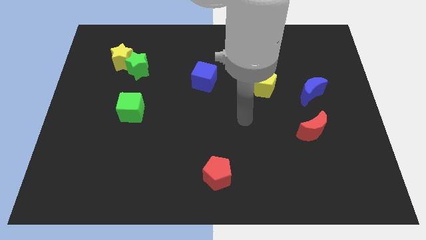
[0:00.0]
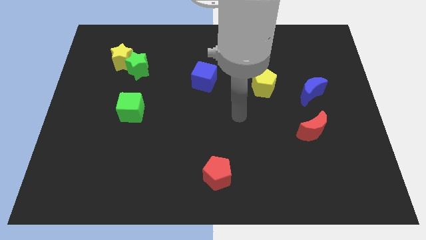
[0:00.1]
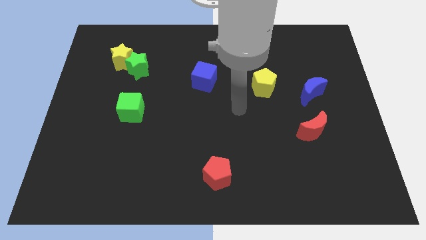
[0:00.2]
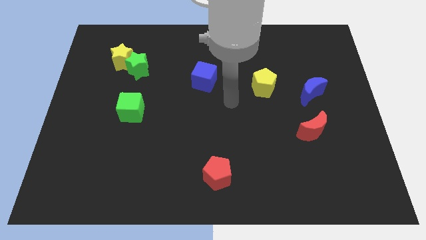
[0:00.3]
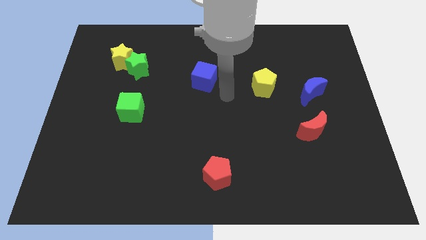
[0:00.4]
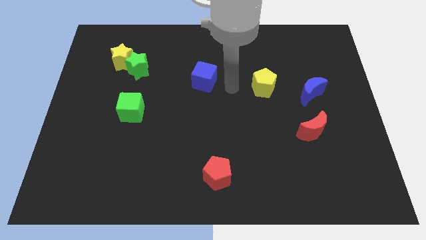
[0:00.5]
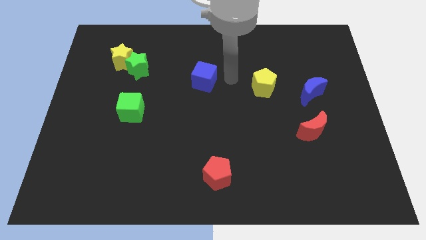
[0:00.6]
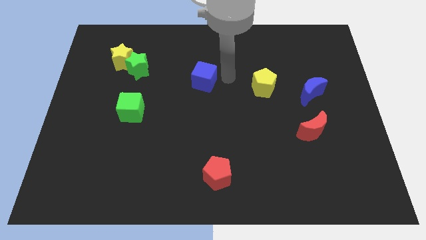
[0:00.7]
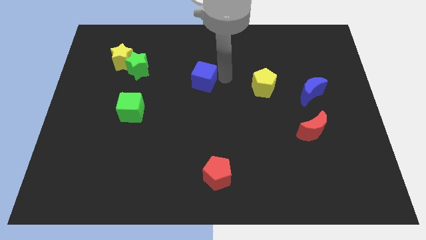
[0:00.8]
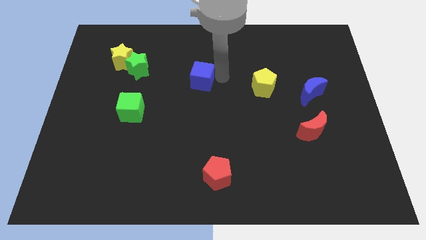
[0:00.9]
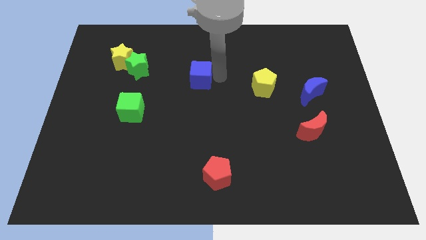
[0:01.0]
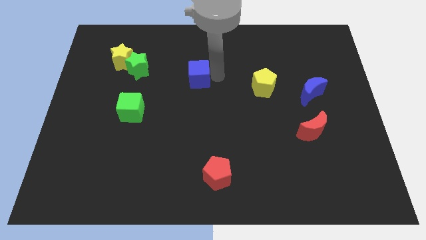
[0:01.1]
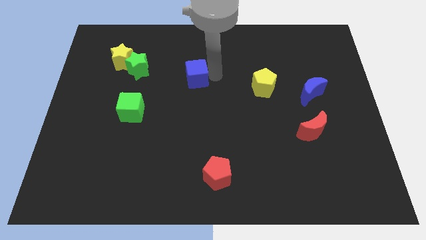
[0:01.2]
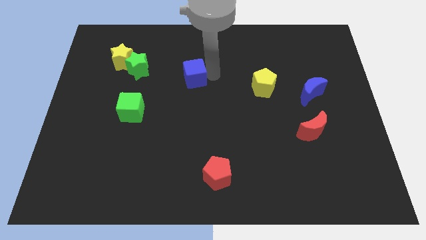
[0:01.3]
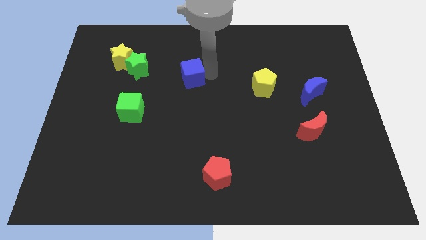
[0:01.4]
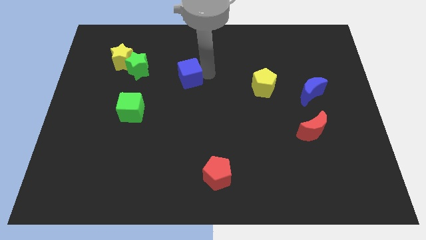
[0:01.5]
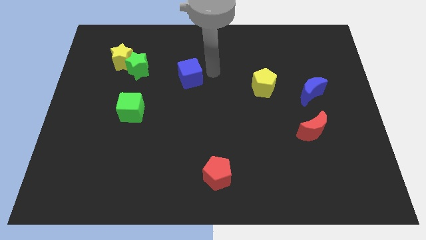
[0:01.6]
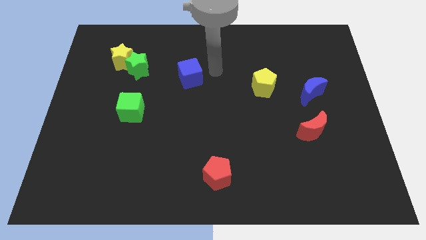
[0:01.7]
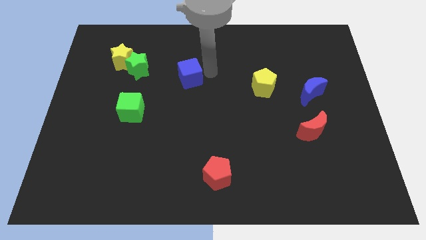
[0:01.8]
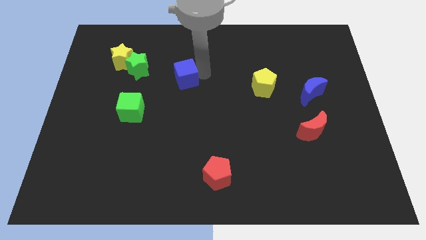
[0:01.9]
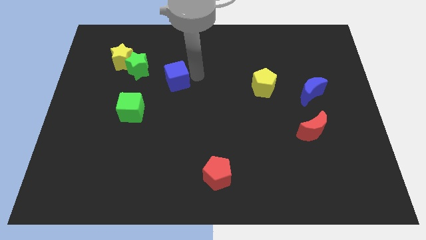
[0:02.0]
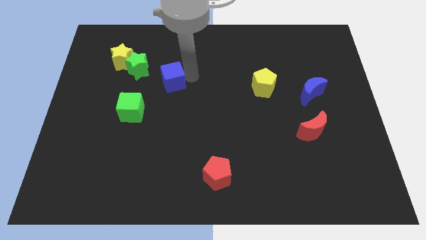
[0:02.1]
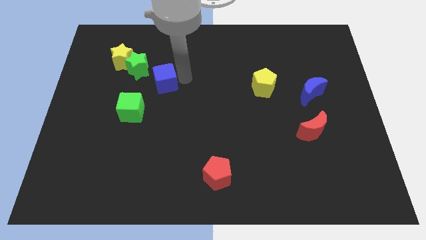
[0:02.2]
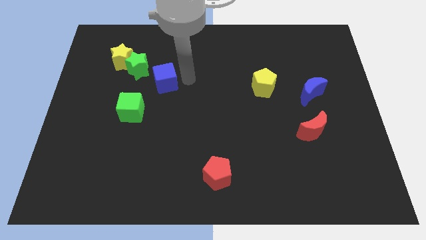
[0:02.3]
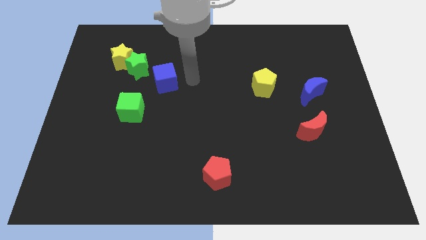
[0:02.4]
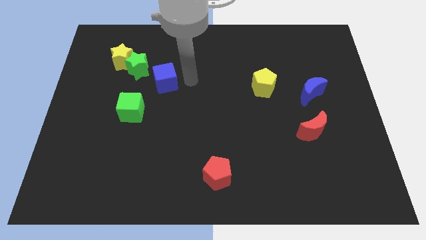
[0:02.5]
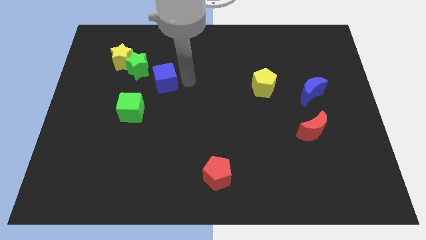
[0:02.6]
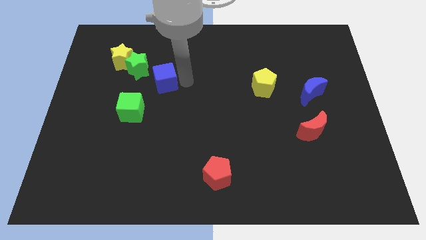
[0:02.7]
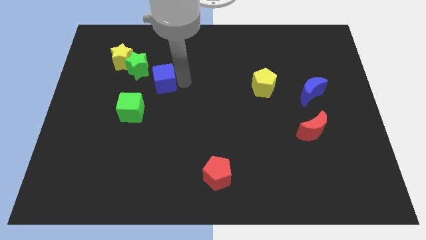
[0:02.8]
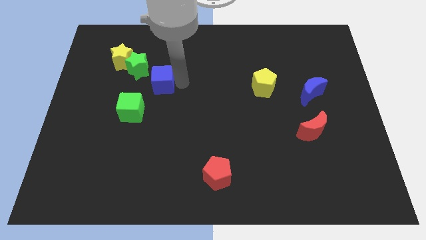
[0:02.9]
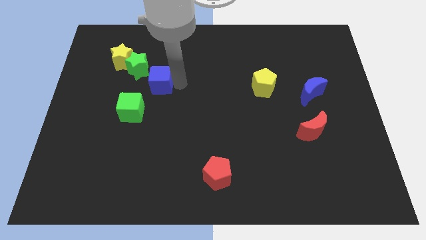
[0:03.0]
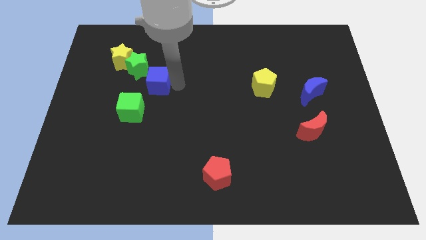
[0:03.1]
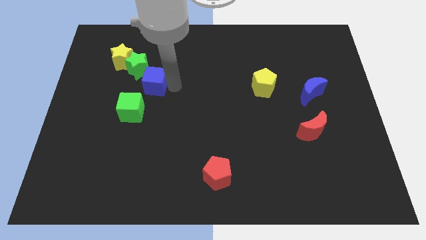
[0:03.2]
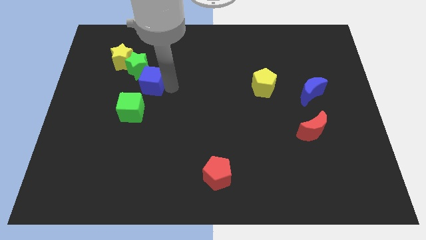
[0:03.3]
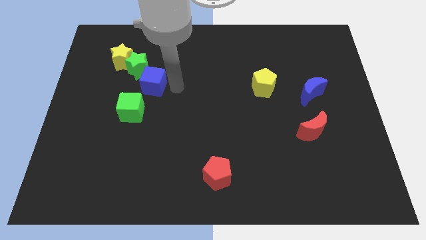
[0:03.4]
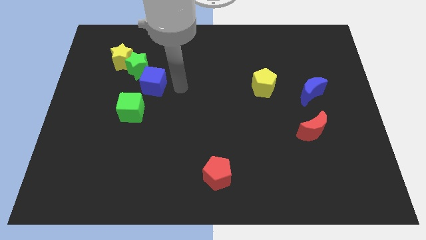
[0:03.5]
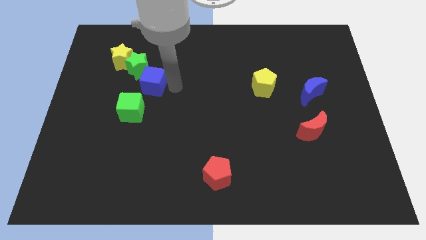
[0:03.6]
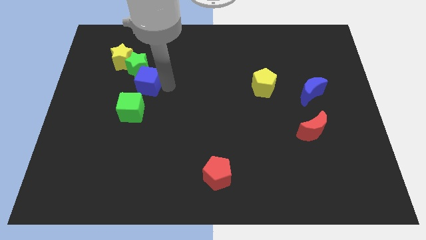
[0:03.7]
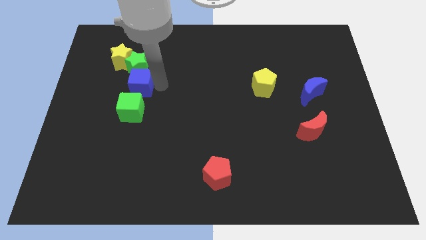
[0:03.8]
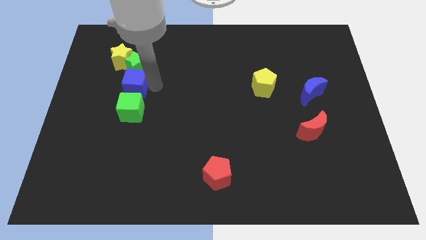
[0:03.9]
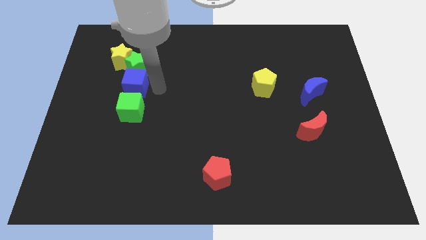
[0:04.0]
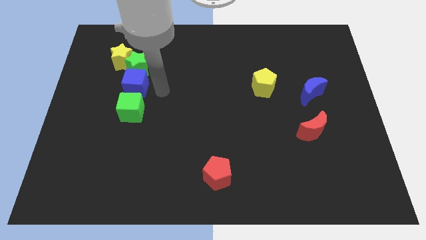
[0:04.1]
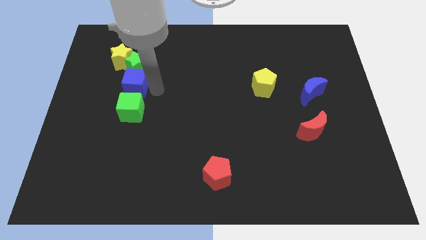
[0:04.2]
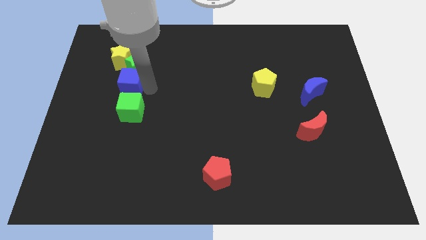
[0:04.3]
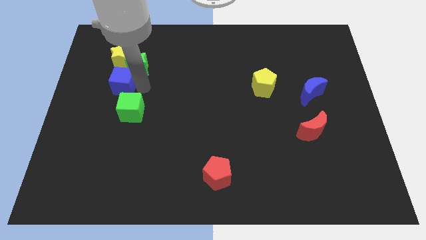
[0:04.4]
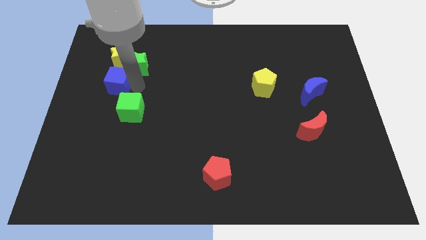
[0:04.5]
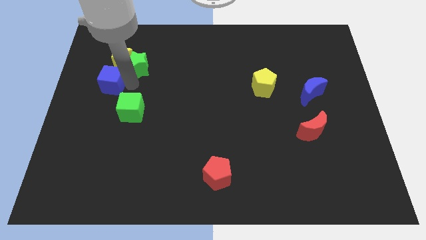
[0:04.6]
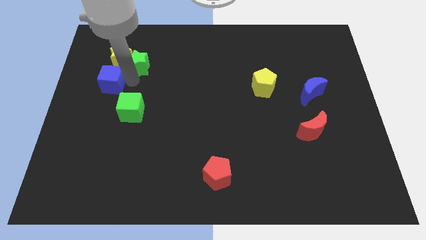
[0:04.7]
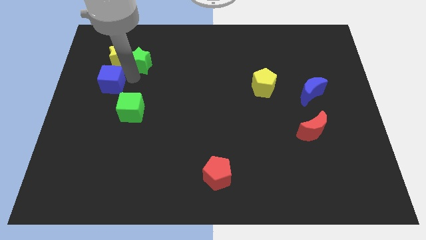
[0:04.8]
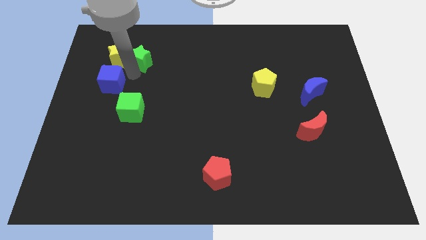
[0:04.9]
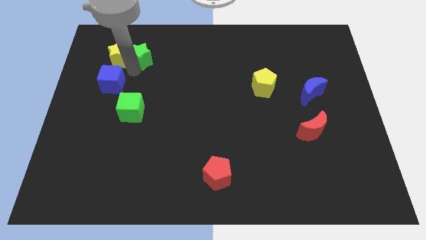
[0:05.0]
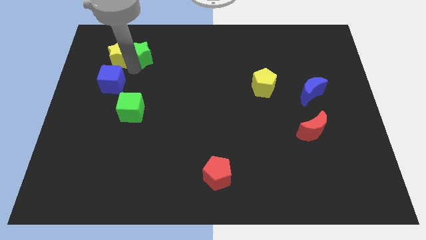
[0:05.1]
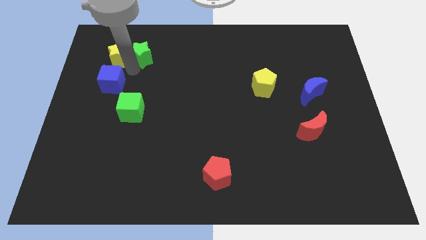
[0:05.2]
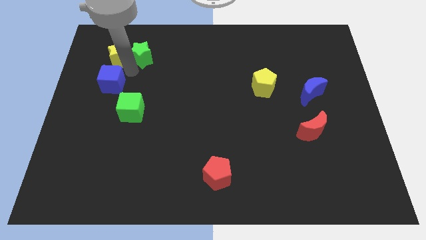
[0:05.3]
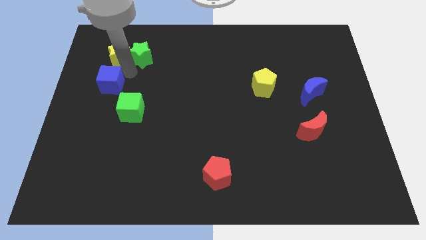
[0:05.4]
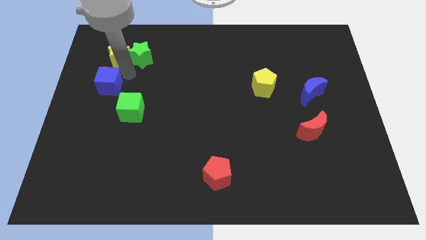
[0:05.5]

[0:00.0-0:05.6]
move the blue cube to the left side of the board

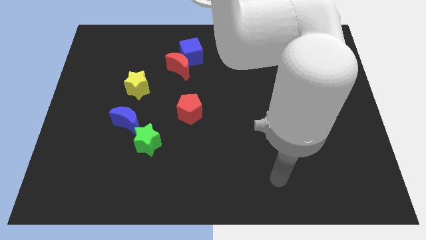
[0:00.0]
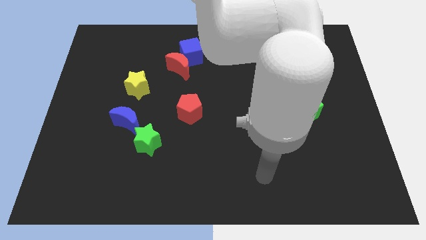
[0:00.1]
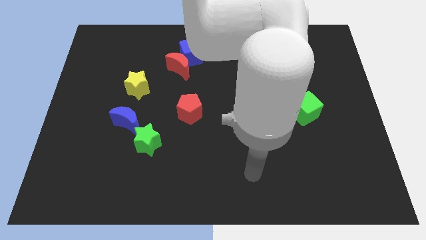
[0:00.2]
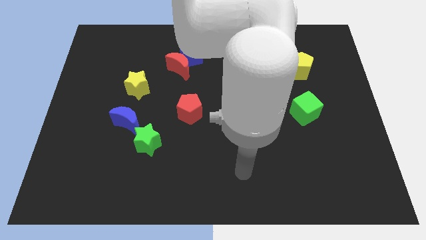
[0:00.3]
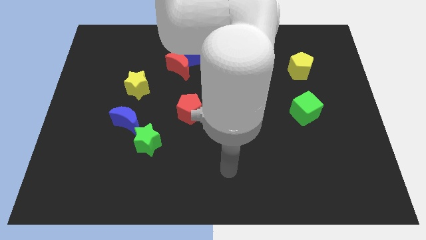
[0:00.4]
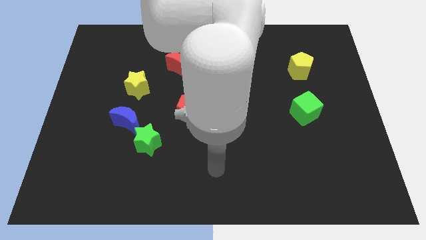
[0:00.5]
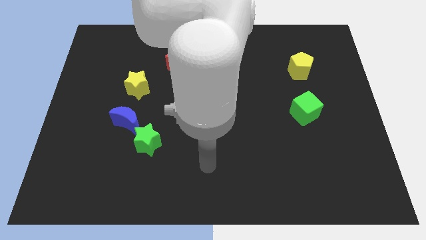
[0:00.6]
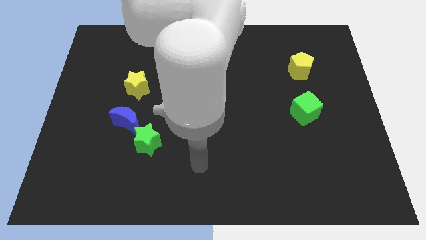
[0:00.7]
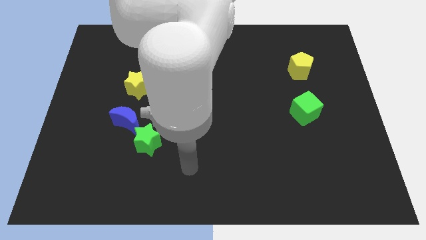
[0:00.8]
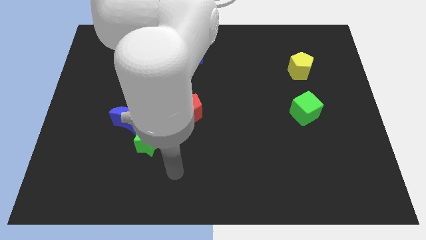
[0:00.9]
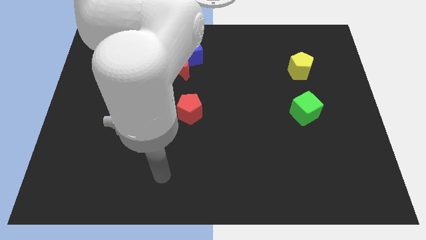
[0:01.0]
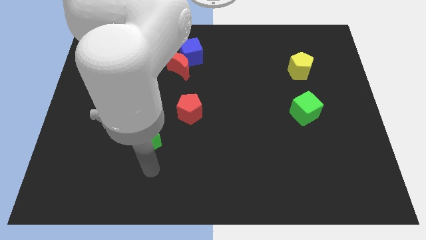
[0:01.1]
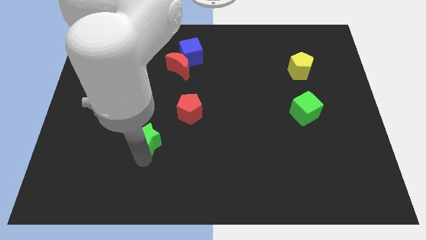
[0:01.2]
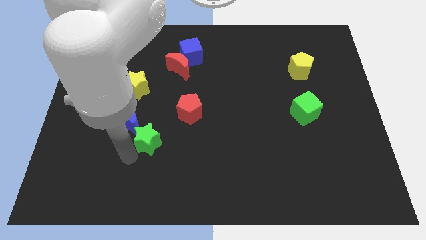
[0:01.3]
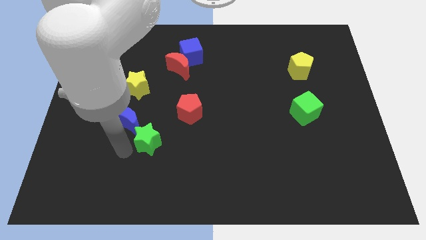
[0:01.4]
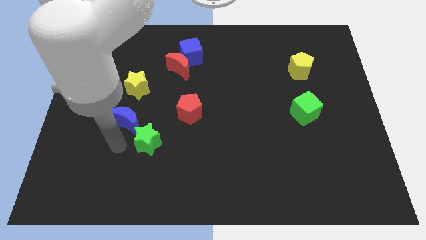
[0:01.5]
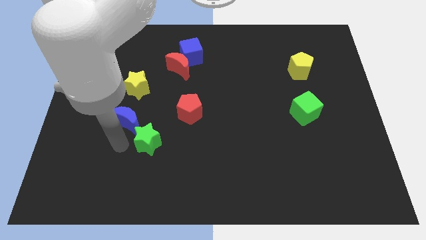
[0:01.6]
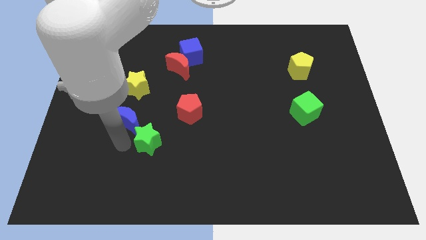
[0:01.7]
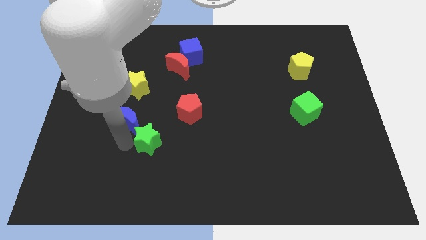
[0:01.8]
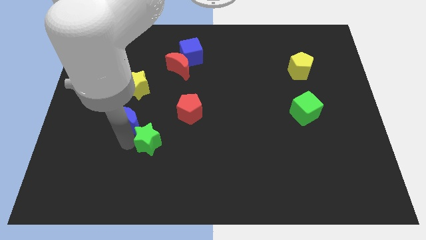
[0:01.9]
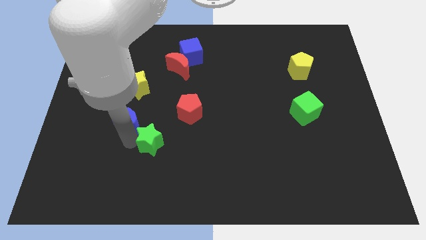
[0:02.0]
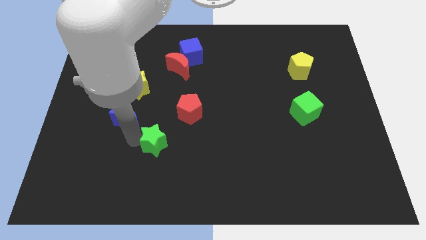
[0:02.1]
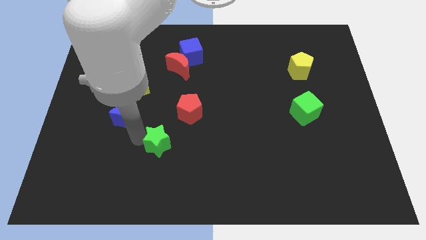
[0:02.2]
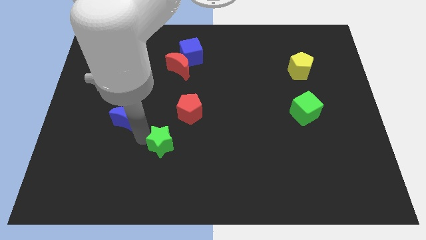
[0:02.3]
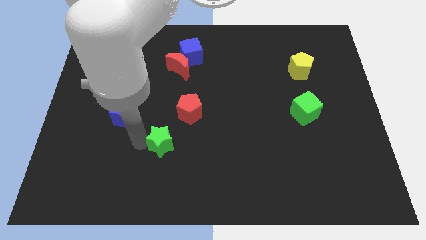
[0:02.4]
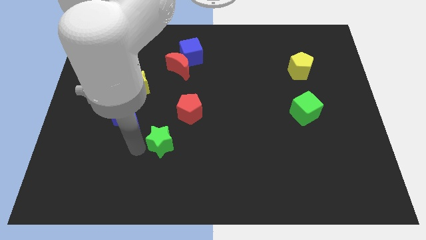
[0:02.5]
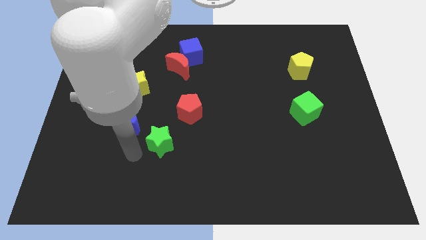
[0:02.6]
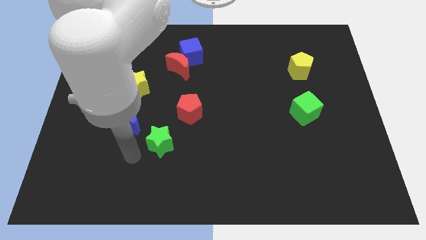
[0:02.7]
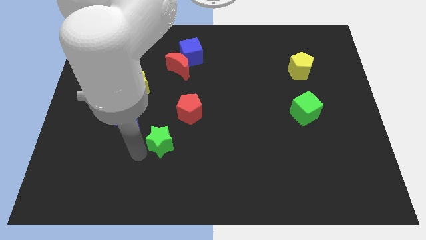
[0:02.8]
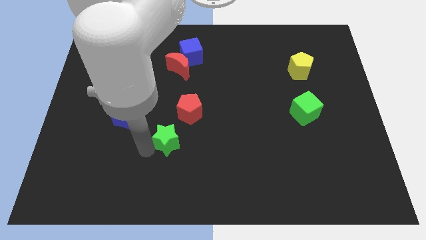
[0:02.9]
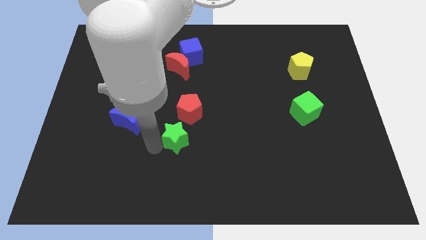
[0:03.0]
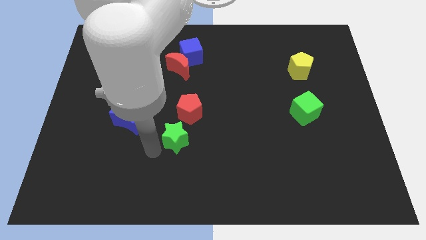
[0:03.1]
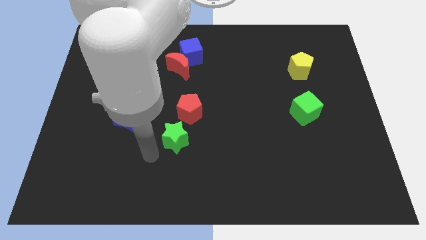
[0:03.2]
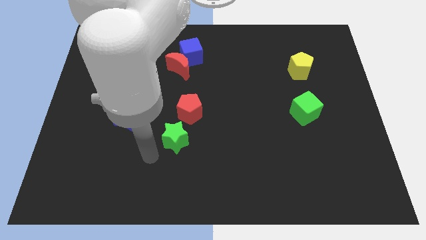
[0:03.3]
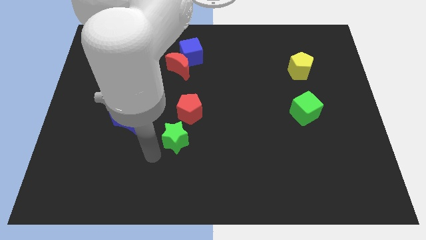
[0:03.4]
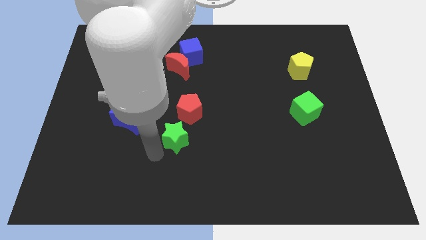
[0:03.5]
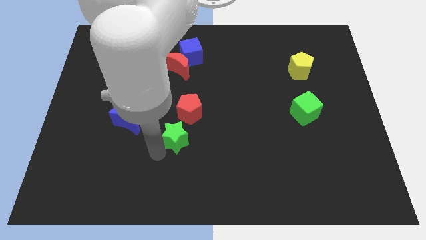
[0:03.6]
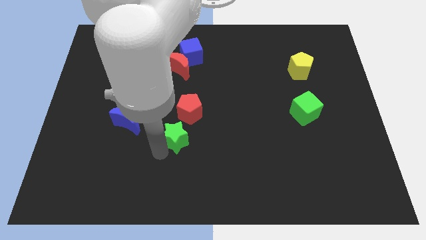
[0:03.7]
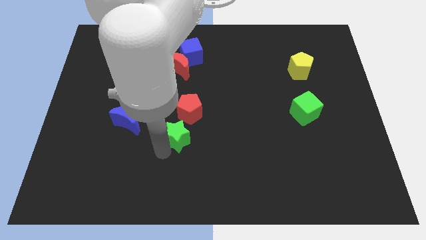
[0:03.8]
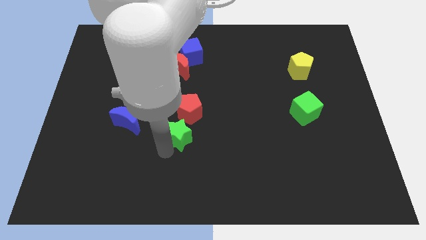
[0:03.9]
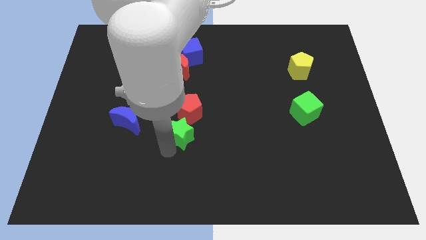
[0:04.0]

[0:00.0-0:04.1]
move the green star to the center of the board
